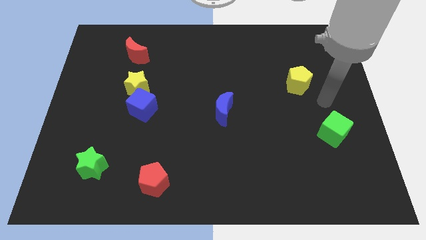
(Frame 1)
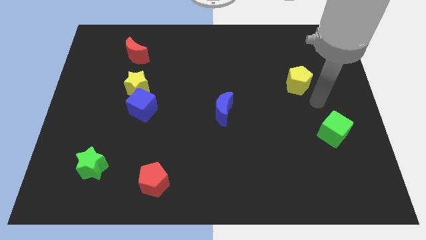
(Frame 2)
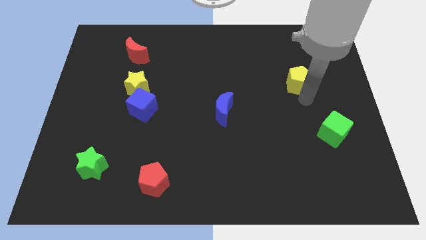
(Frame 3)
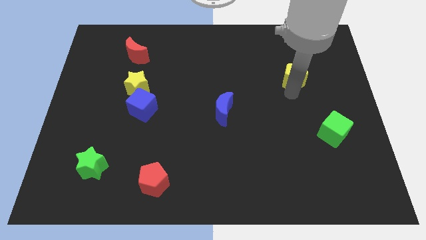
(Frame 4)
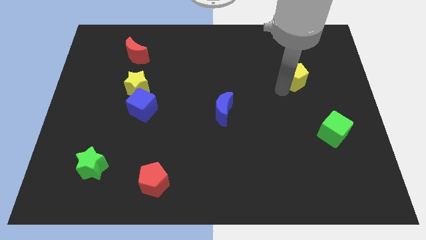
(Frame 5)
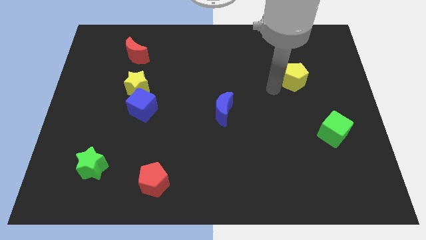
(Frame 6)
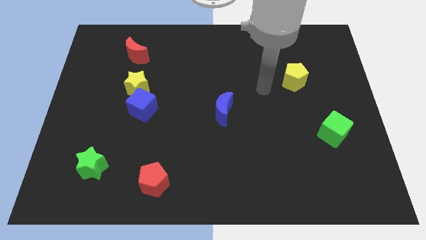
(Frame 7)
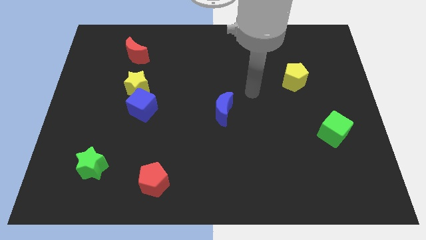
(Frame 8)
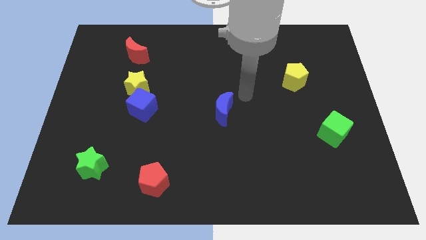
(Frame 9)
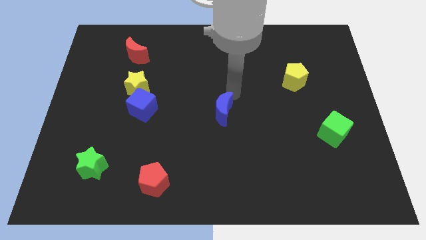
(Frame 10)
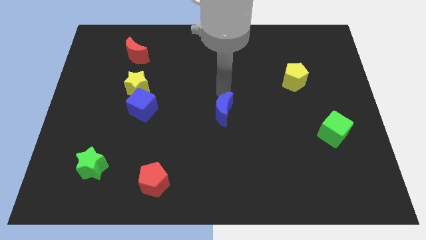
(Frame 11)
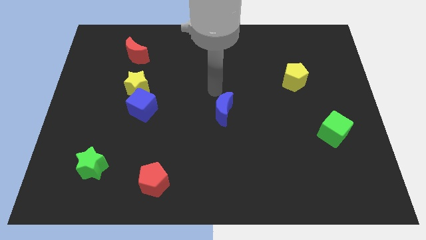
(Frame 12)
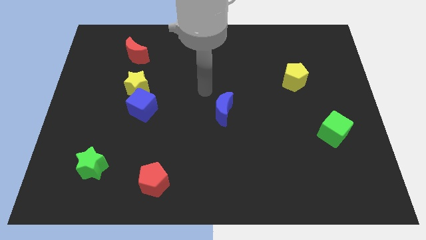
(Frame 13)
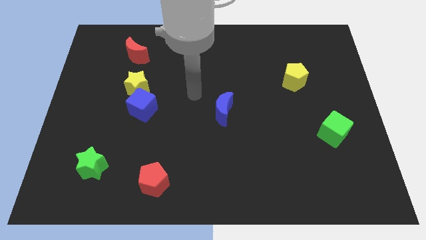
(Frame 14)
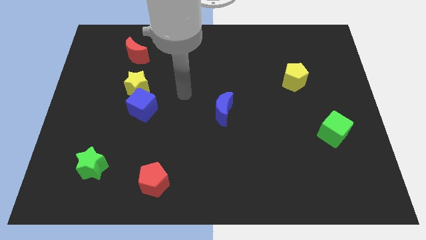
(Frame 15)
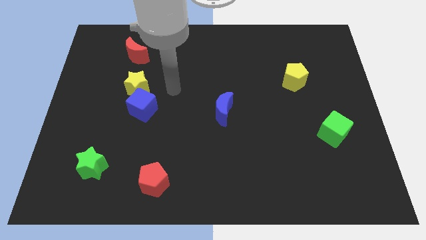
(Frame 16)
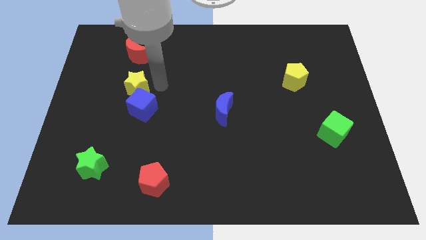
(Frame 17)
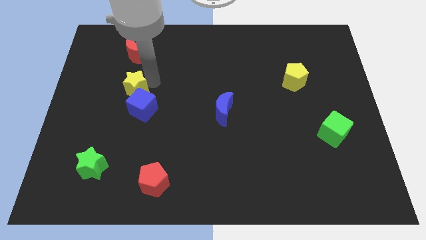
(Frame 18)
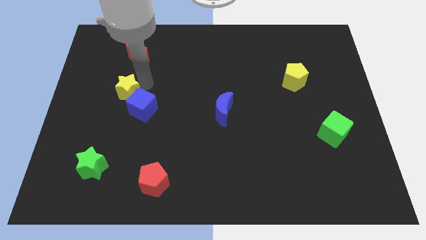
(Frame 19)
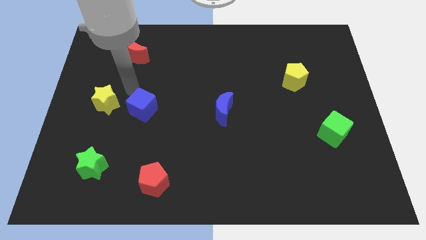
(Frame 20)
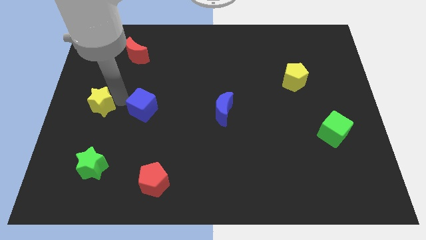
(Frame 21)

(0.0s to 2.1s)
move the blue cube away from the yellow star

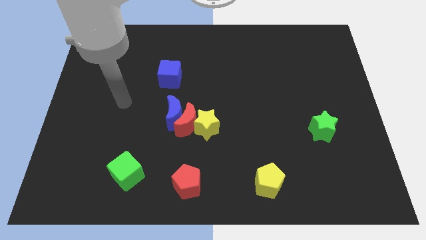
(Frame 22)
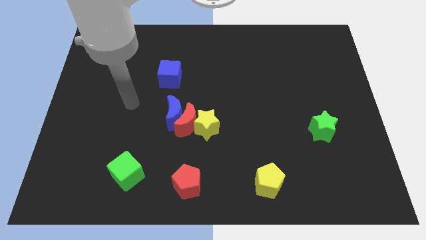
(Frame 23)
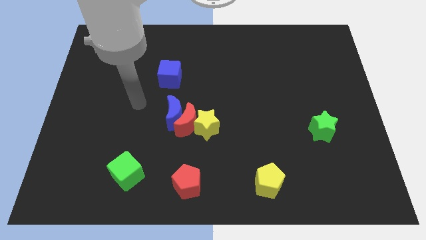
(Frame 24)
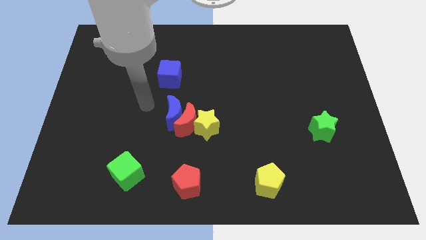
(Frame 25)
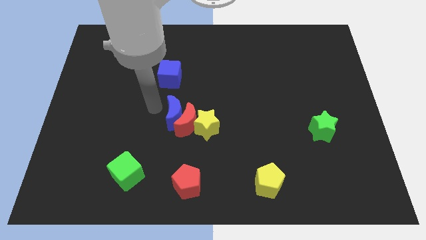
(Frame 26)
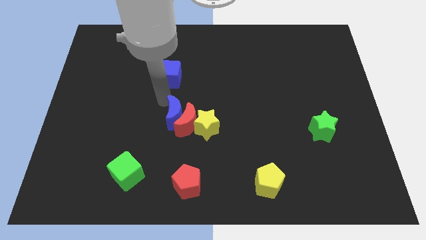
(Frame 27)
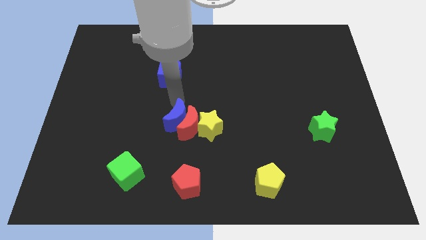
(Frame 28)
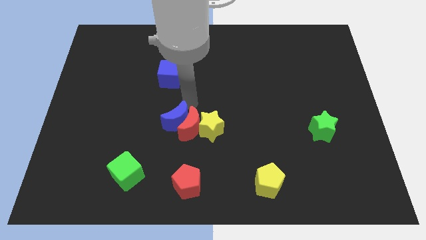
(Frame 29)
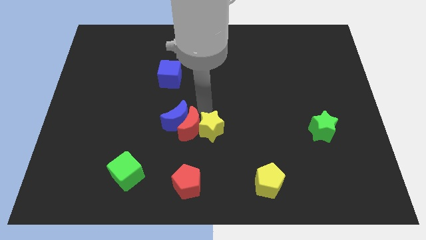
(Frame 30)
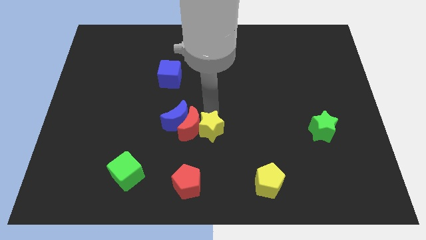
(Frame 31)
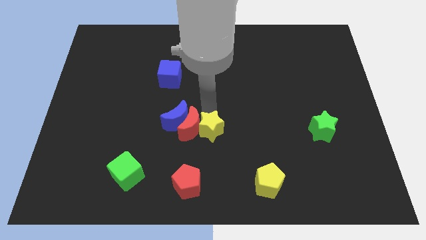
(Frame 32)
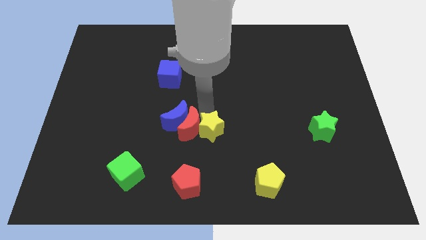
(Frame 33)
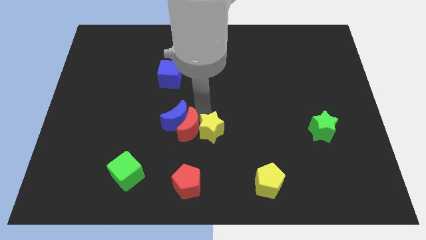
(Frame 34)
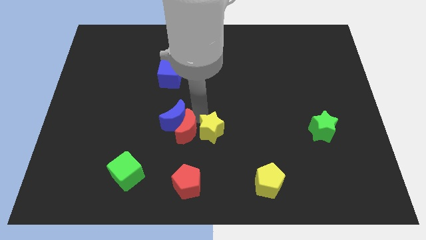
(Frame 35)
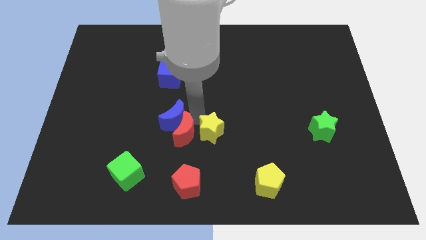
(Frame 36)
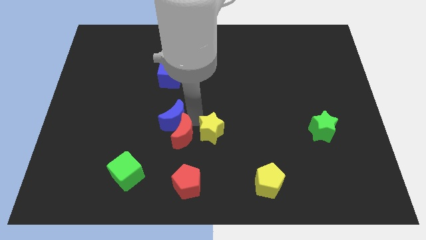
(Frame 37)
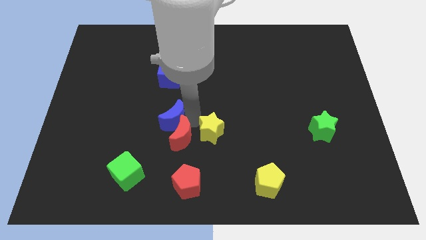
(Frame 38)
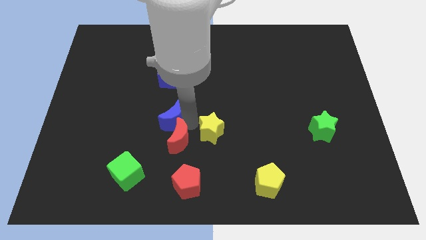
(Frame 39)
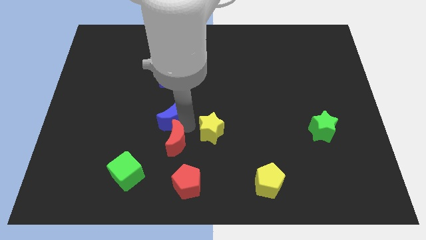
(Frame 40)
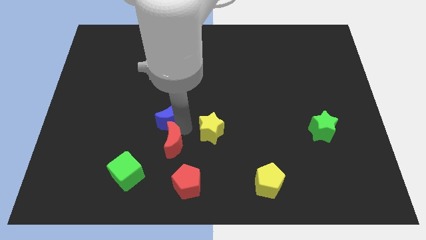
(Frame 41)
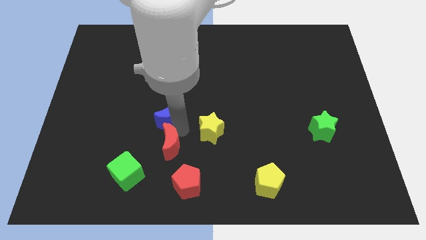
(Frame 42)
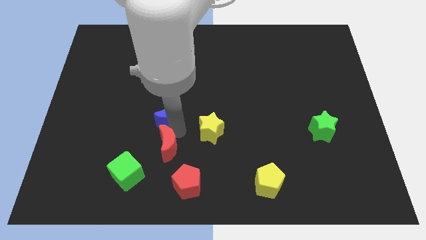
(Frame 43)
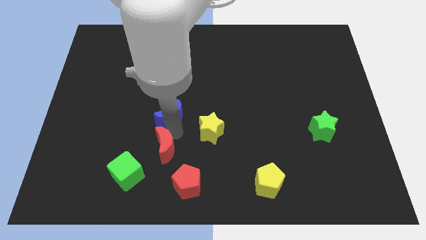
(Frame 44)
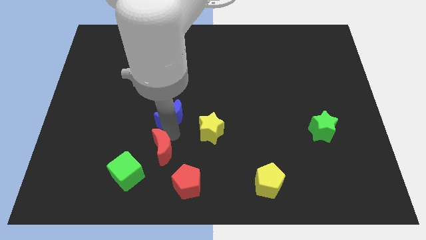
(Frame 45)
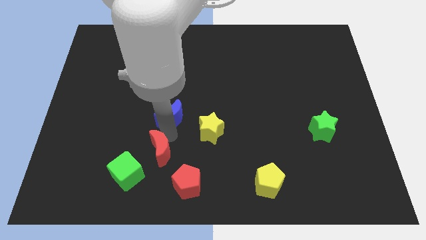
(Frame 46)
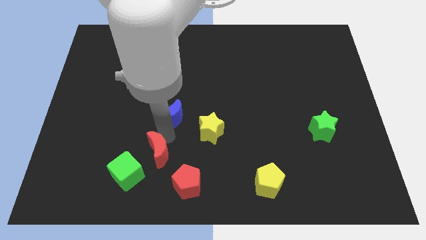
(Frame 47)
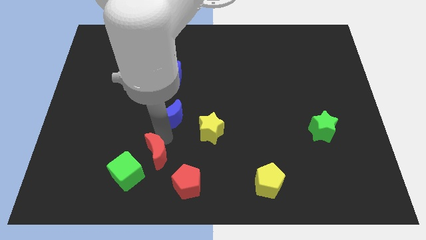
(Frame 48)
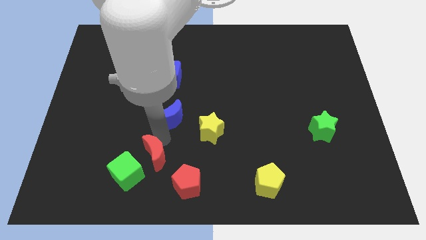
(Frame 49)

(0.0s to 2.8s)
pull the red moon apart from the blue moon and yellow star

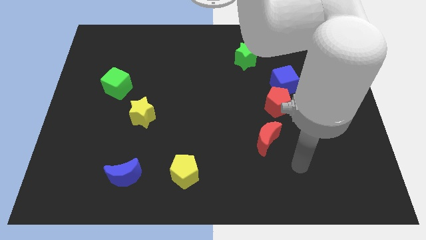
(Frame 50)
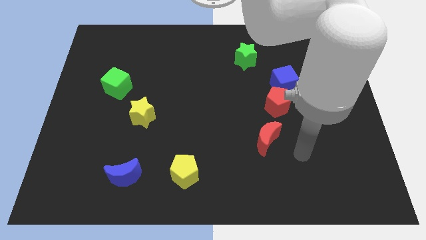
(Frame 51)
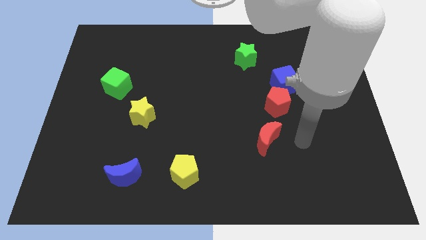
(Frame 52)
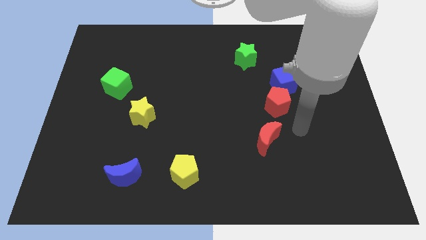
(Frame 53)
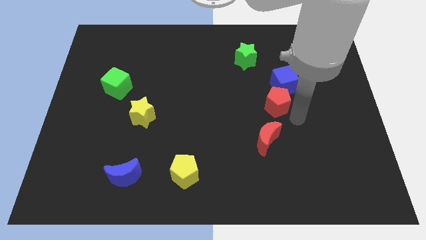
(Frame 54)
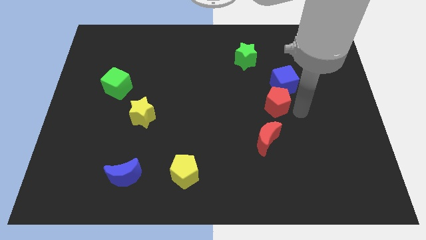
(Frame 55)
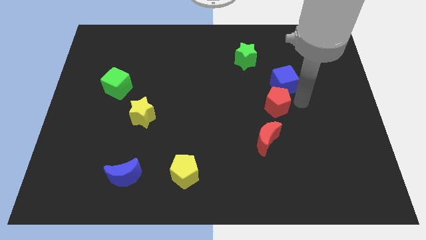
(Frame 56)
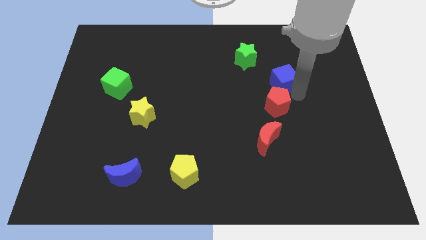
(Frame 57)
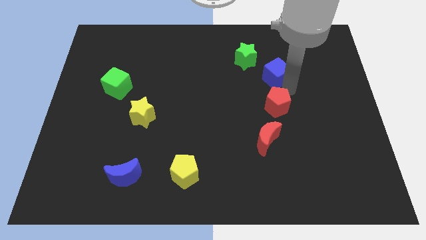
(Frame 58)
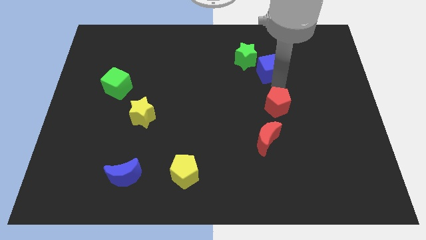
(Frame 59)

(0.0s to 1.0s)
pull the red pentagon apart from the blue cube

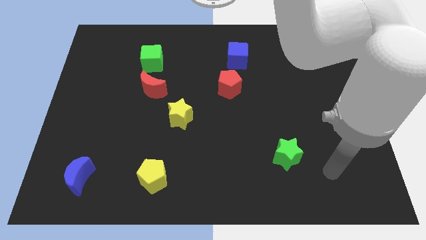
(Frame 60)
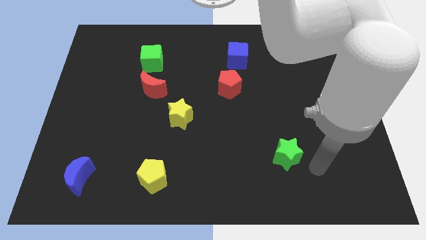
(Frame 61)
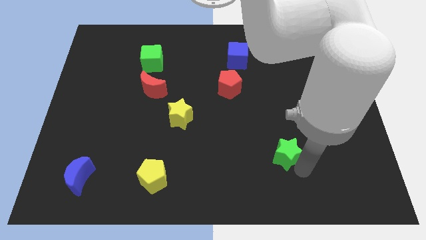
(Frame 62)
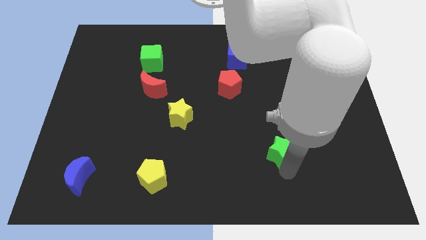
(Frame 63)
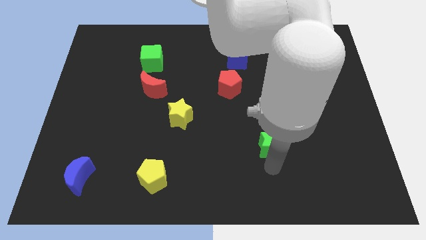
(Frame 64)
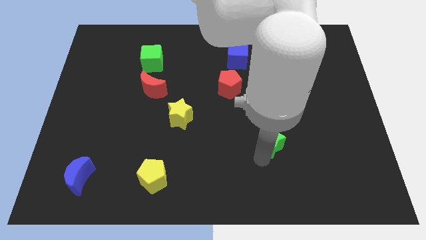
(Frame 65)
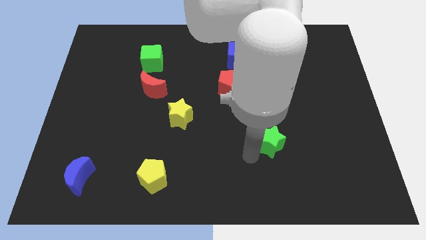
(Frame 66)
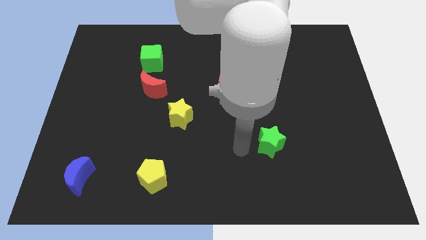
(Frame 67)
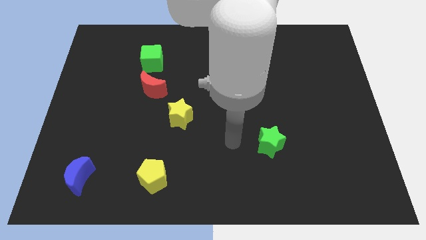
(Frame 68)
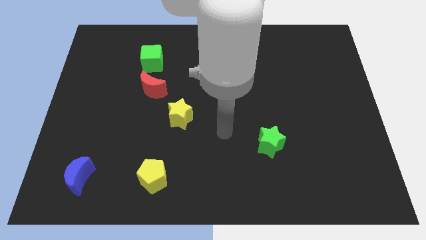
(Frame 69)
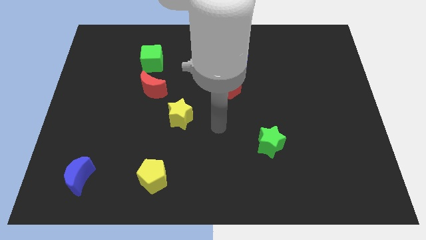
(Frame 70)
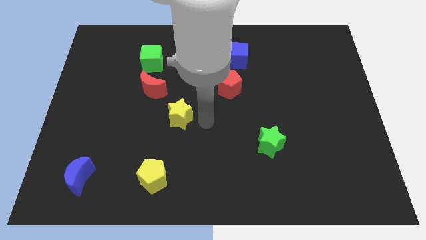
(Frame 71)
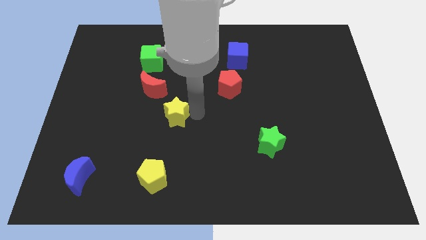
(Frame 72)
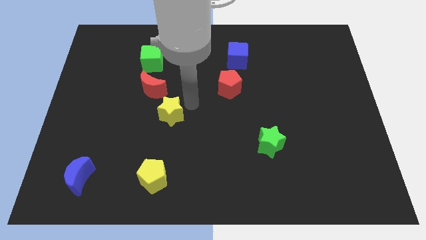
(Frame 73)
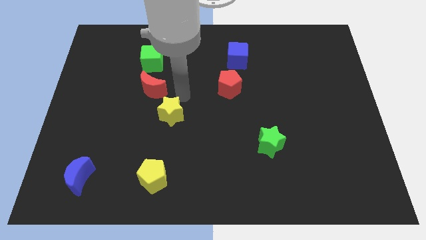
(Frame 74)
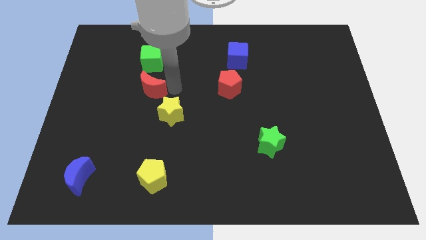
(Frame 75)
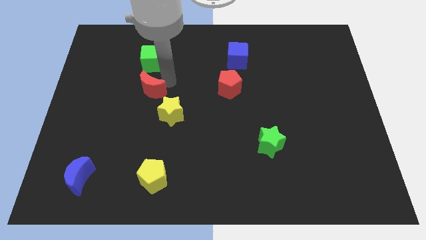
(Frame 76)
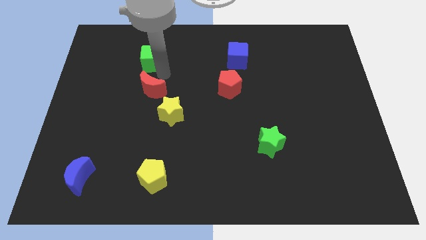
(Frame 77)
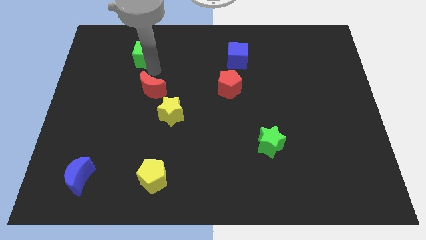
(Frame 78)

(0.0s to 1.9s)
separate the red moon from the green cube

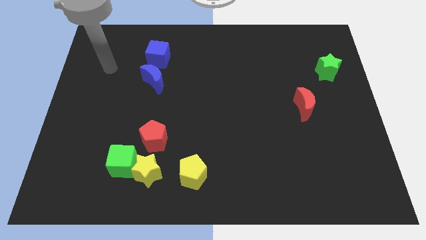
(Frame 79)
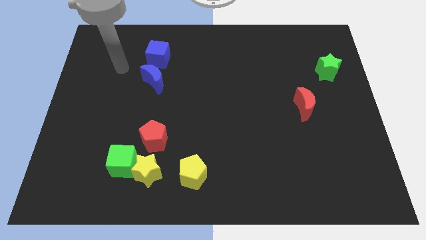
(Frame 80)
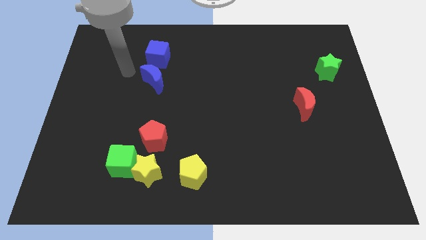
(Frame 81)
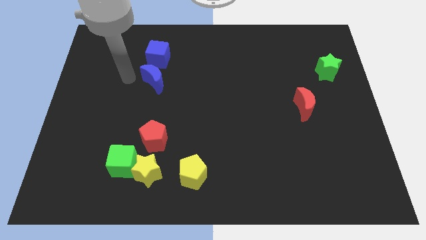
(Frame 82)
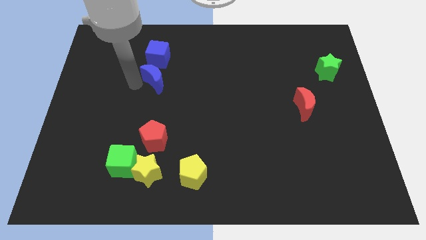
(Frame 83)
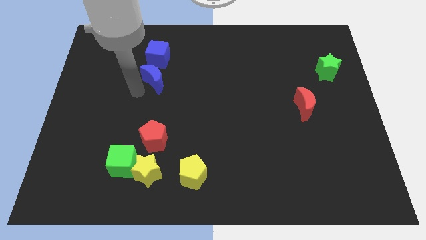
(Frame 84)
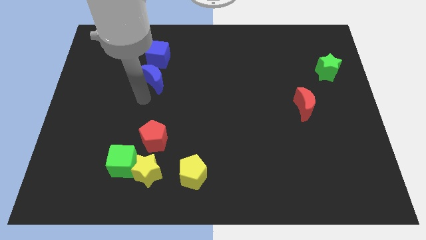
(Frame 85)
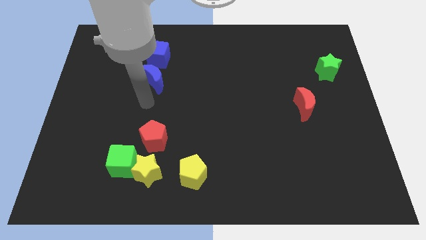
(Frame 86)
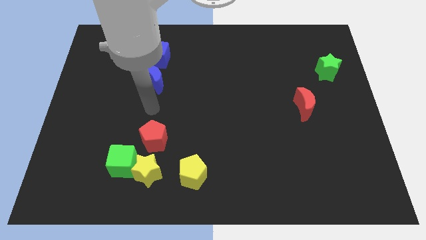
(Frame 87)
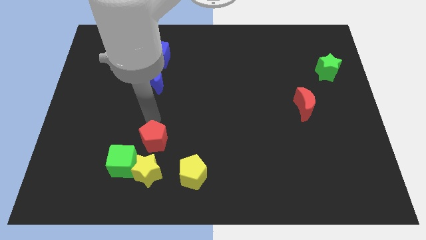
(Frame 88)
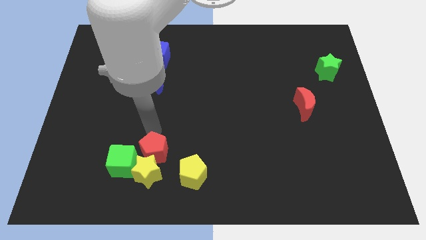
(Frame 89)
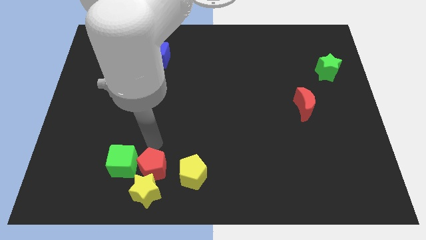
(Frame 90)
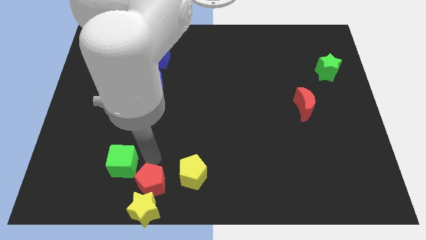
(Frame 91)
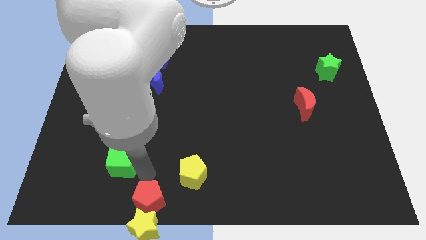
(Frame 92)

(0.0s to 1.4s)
move the green cube away from the yellow star and red pentagon
